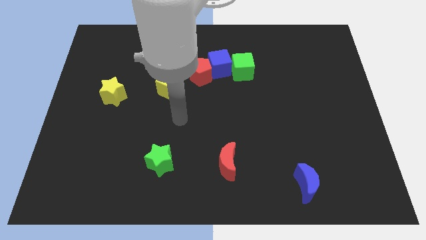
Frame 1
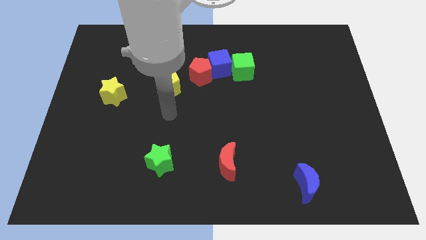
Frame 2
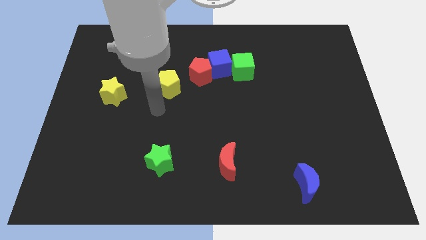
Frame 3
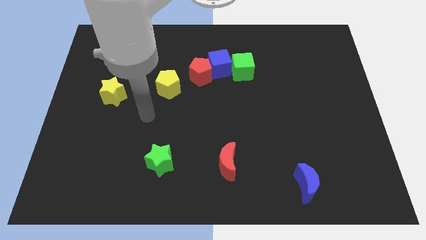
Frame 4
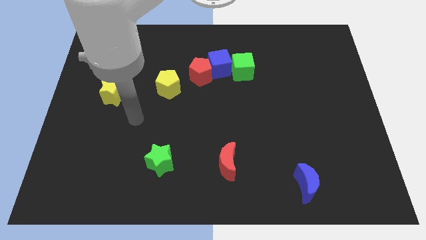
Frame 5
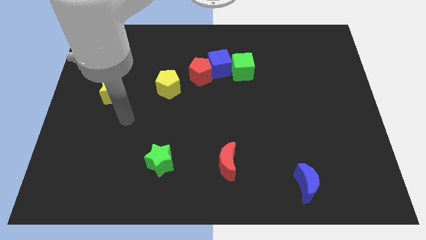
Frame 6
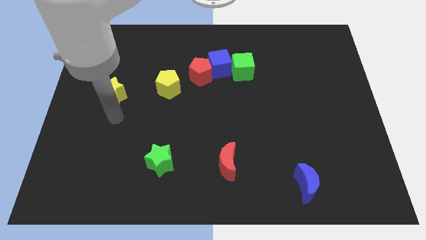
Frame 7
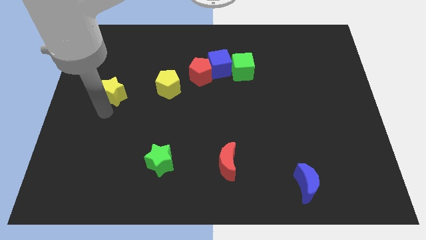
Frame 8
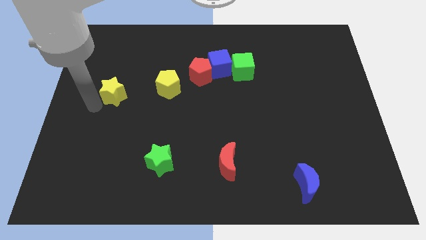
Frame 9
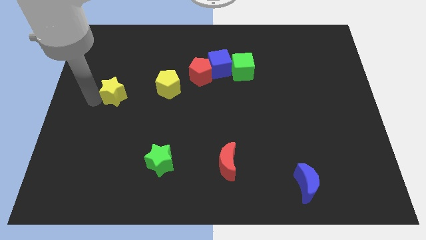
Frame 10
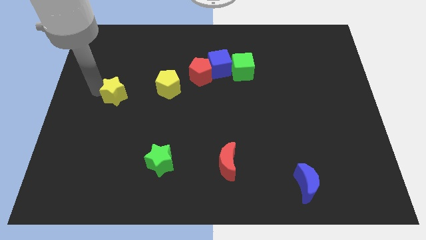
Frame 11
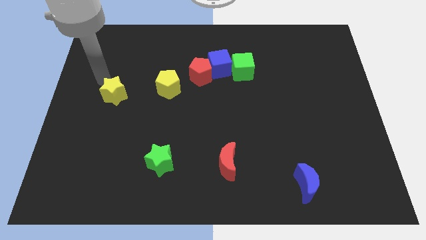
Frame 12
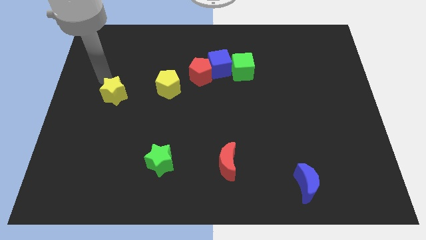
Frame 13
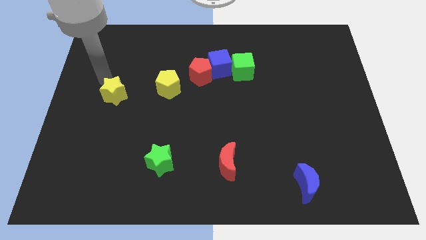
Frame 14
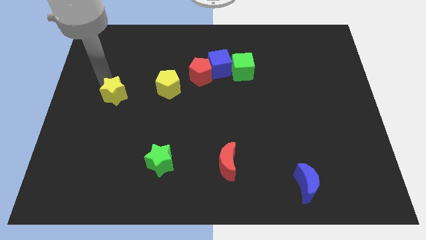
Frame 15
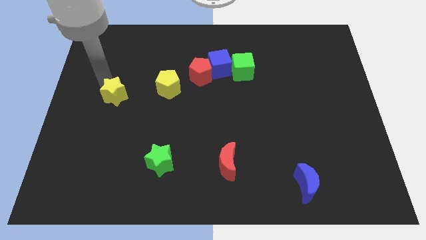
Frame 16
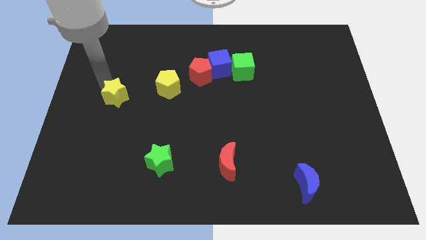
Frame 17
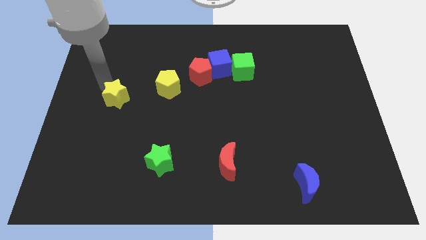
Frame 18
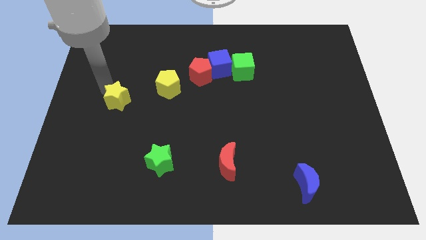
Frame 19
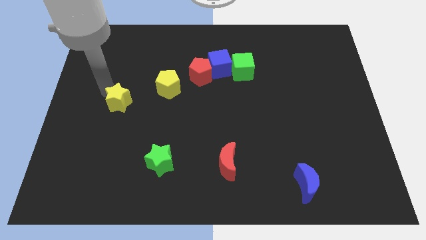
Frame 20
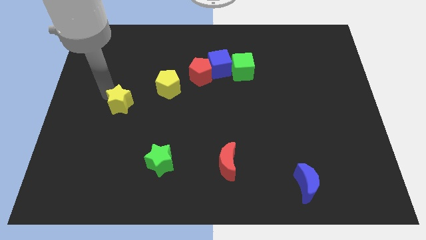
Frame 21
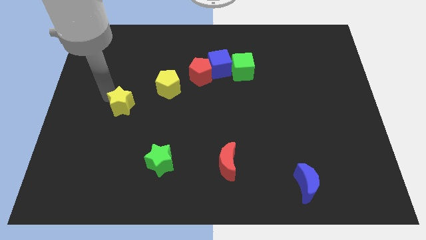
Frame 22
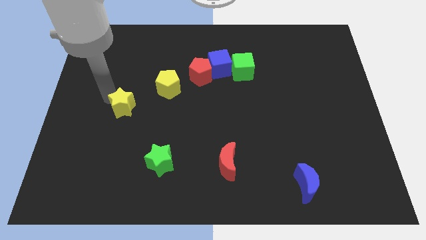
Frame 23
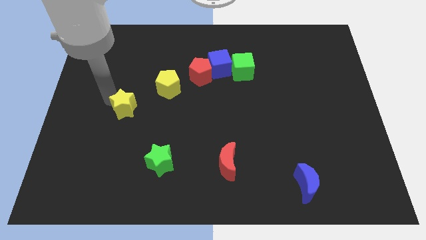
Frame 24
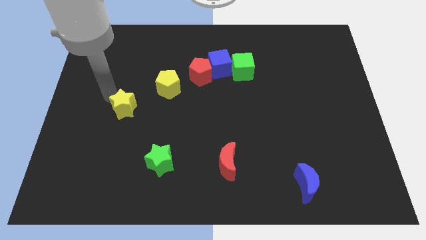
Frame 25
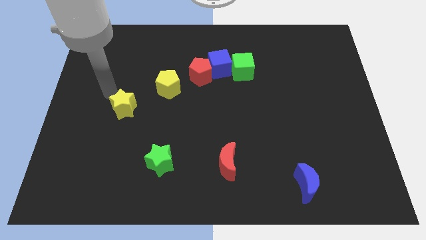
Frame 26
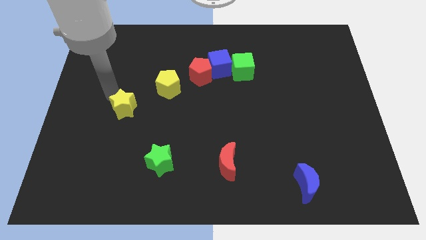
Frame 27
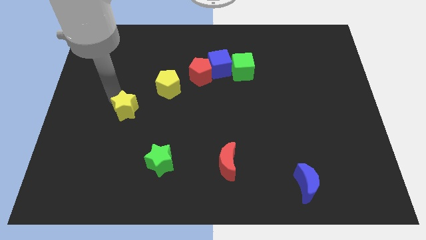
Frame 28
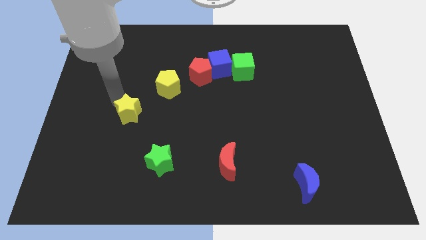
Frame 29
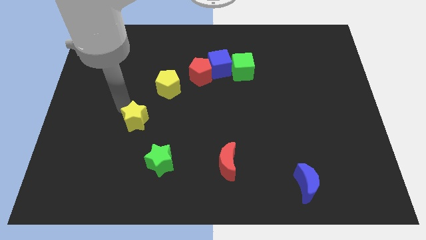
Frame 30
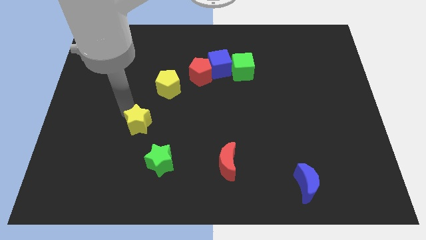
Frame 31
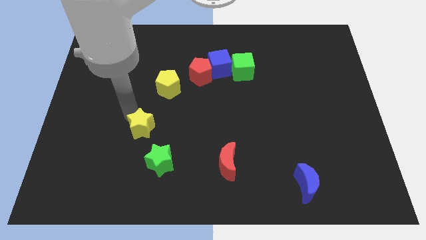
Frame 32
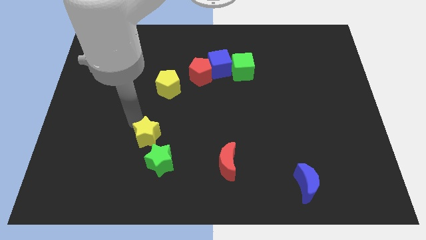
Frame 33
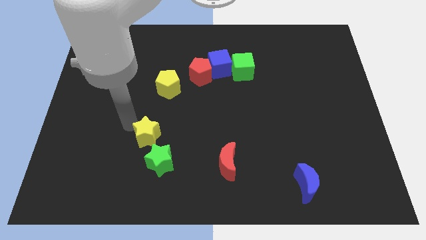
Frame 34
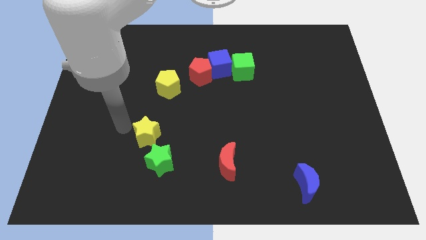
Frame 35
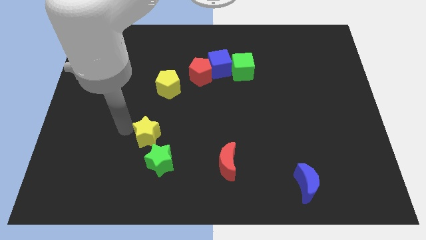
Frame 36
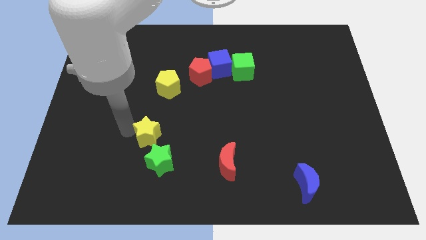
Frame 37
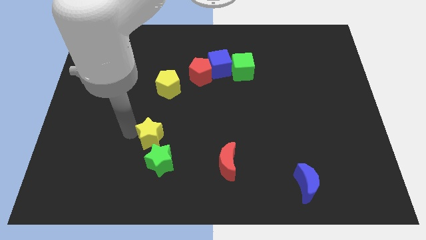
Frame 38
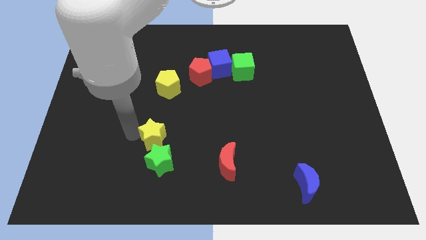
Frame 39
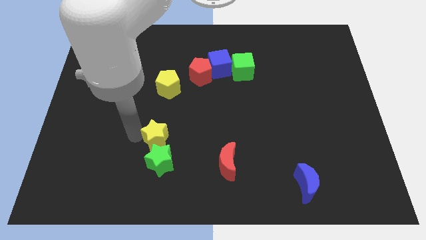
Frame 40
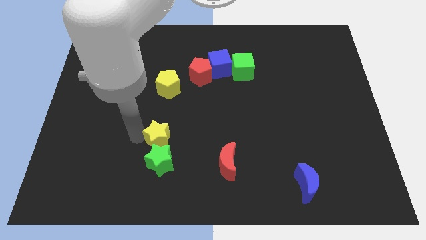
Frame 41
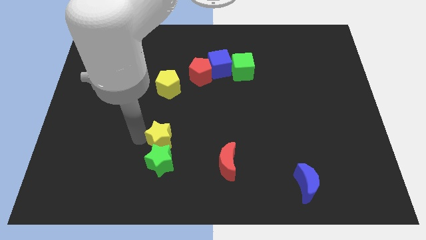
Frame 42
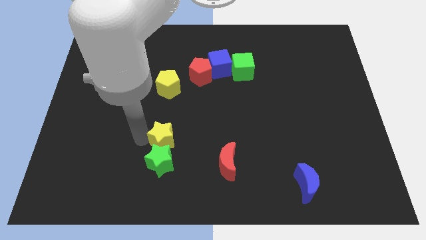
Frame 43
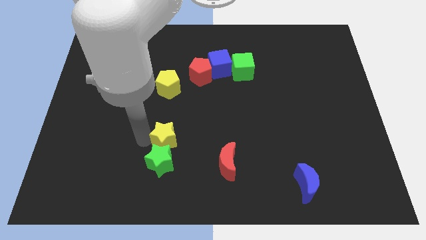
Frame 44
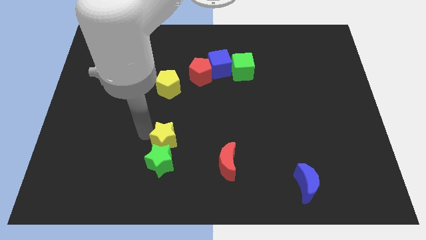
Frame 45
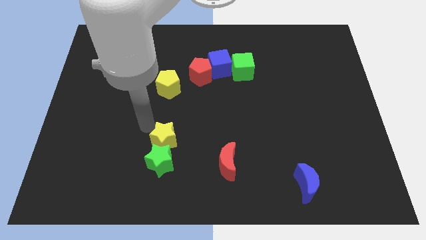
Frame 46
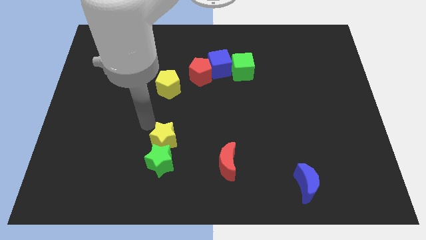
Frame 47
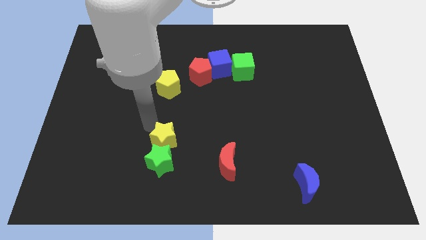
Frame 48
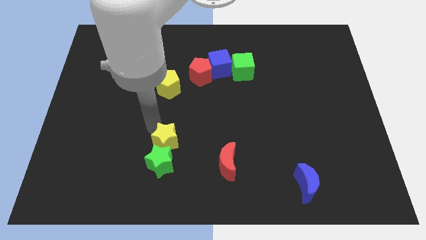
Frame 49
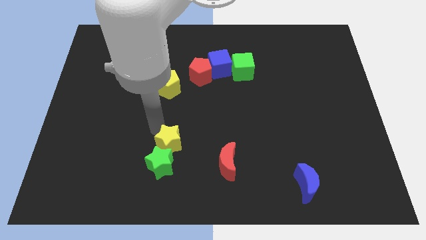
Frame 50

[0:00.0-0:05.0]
slide the yellow star downwards and right diagonally

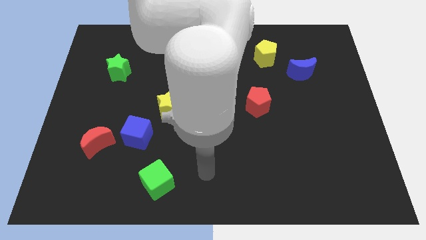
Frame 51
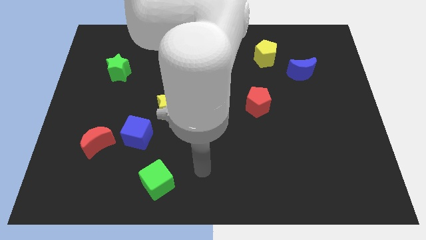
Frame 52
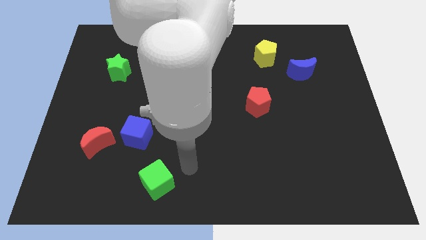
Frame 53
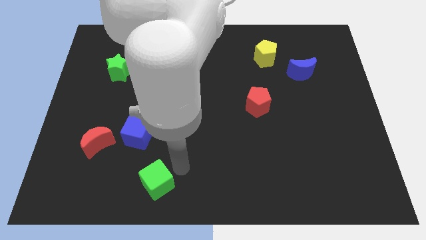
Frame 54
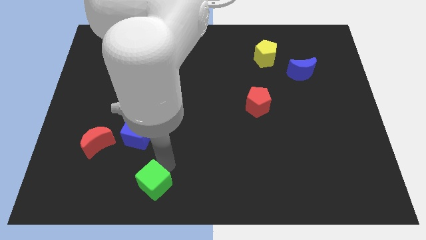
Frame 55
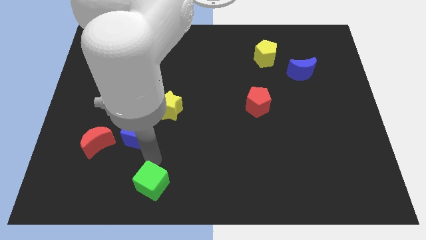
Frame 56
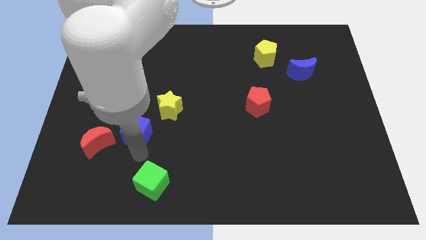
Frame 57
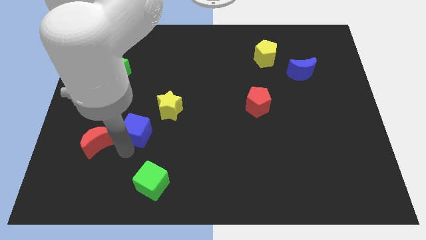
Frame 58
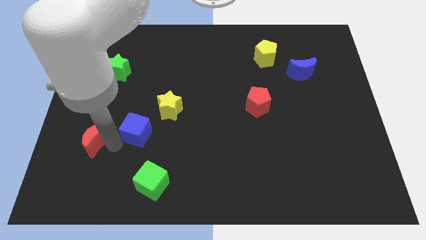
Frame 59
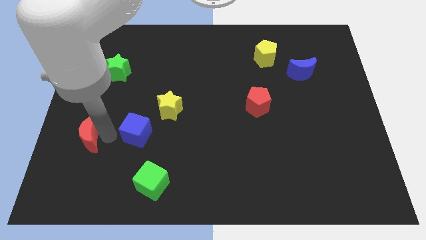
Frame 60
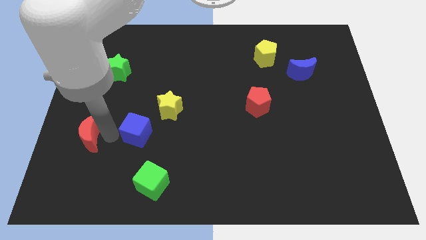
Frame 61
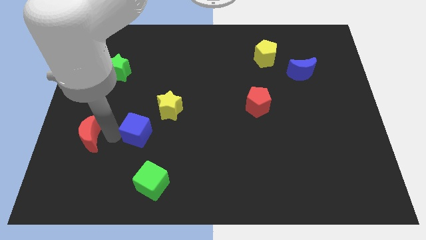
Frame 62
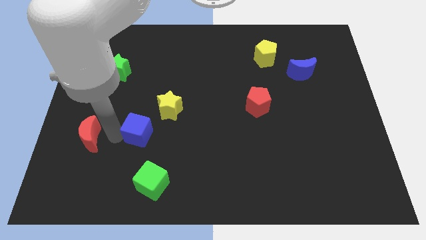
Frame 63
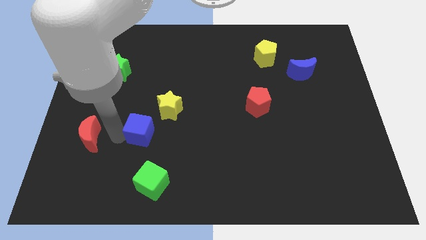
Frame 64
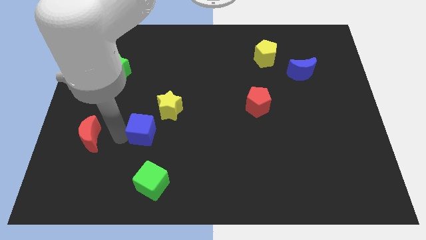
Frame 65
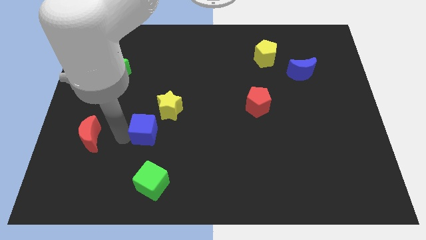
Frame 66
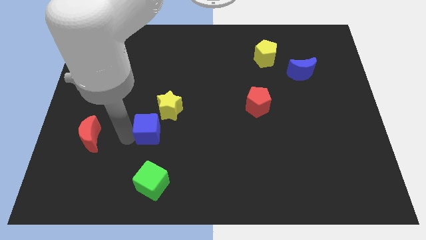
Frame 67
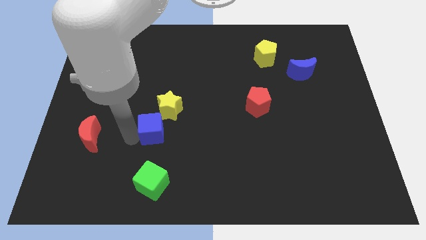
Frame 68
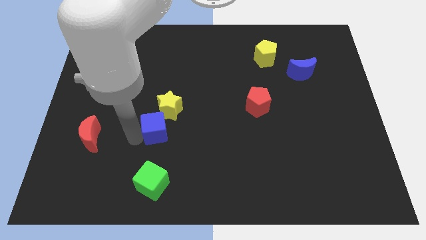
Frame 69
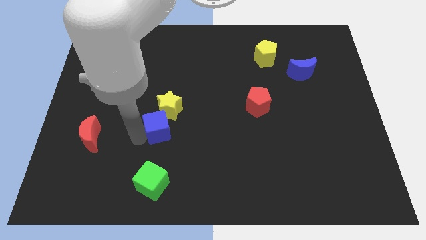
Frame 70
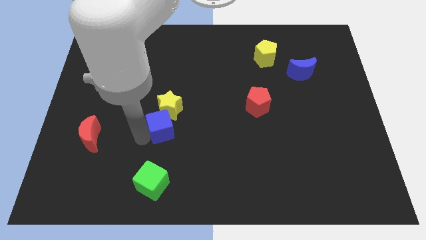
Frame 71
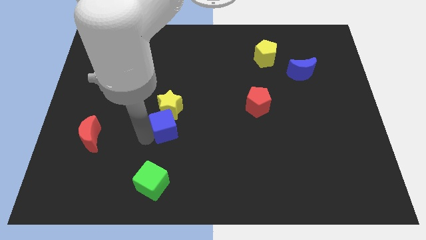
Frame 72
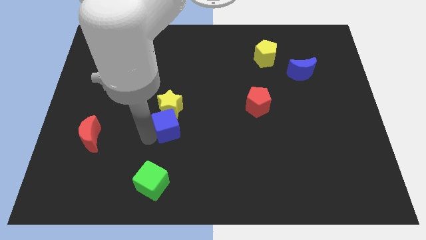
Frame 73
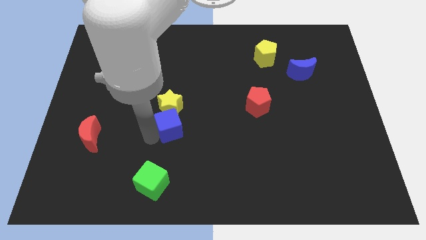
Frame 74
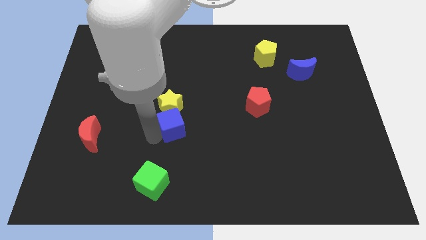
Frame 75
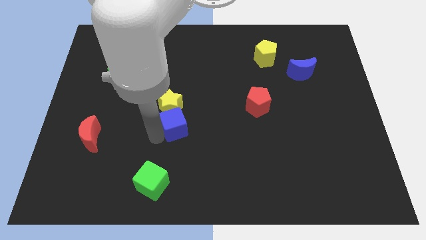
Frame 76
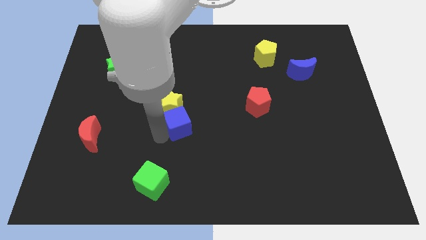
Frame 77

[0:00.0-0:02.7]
slide the blue cube a bit upwards and to the right

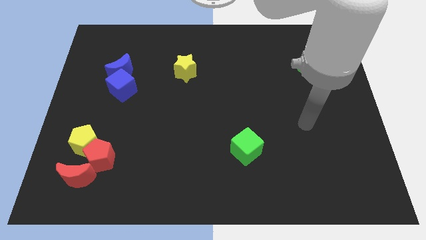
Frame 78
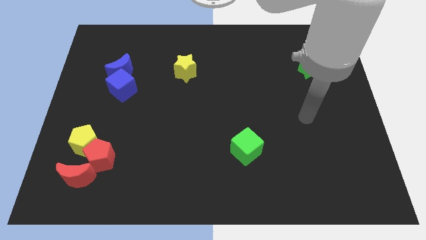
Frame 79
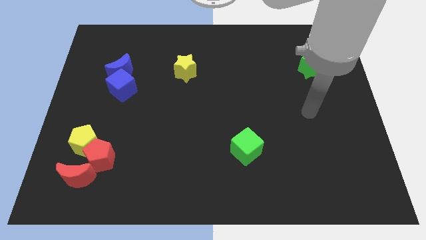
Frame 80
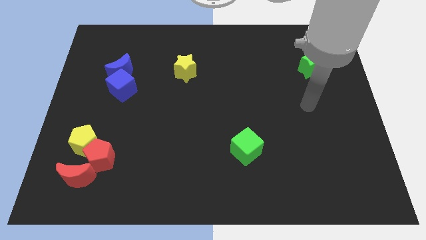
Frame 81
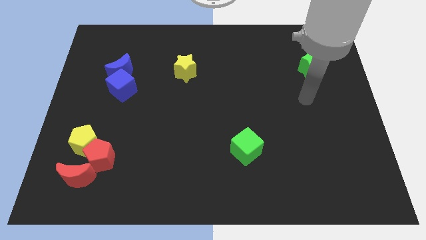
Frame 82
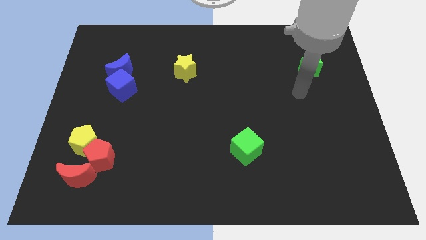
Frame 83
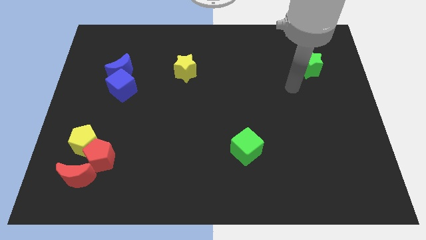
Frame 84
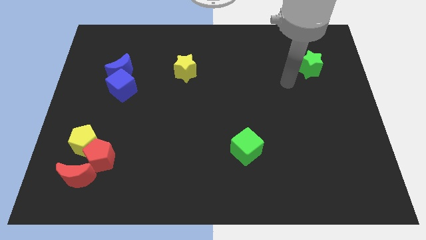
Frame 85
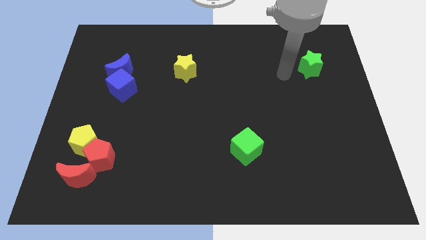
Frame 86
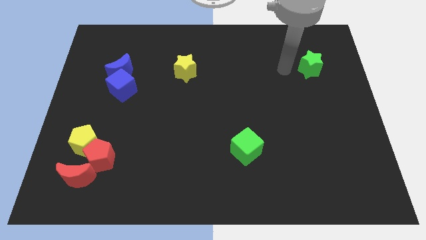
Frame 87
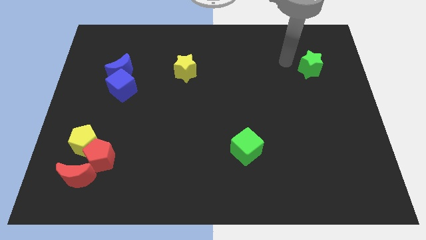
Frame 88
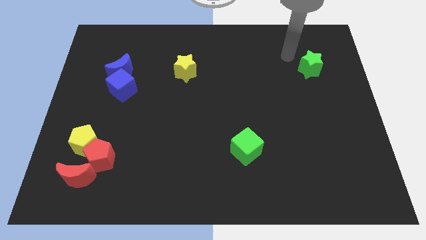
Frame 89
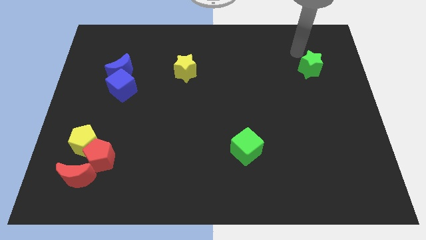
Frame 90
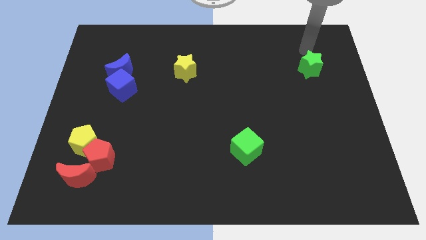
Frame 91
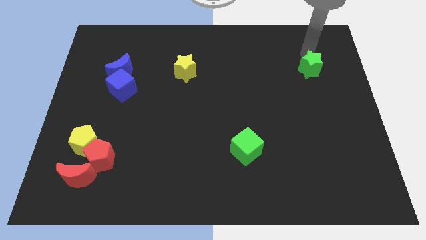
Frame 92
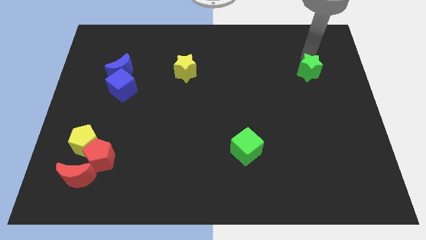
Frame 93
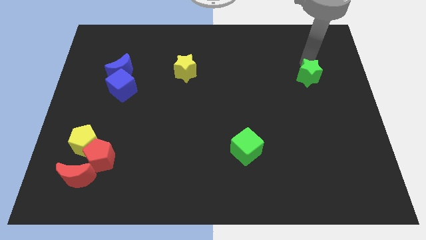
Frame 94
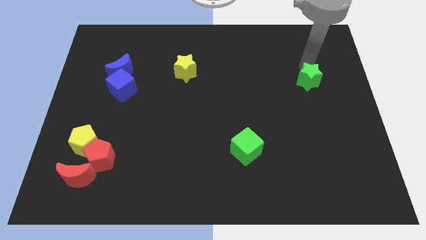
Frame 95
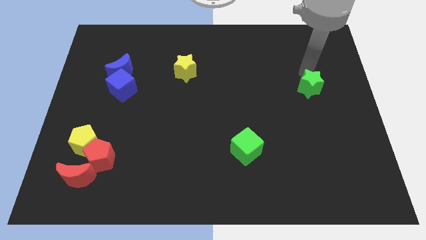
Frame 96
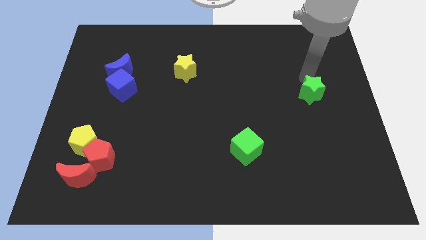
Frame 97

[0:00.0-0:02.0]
slightly slide the green star down
